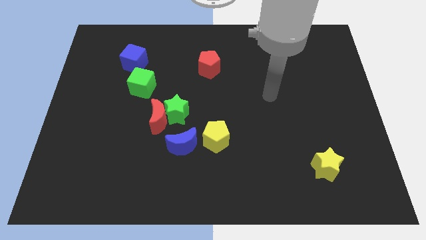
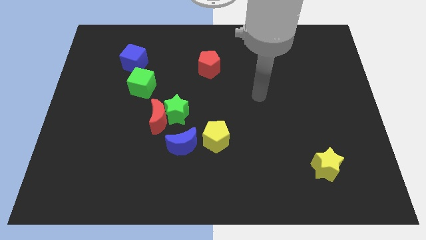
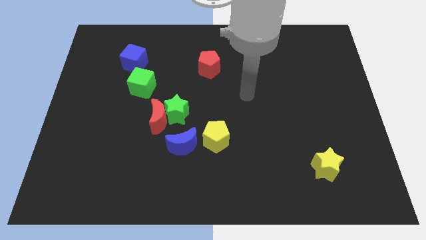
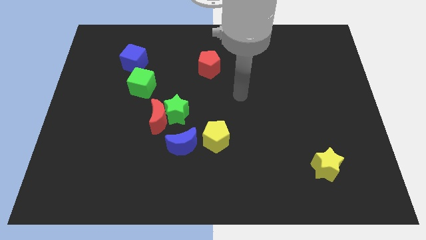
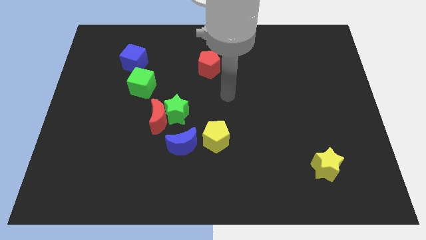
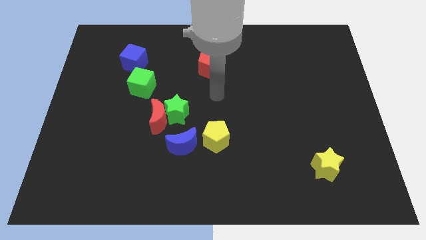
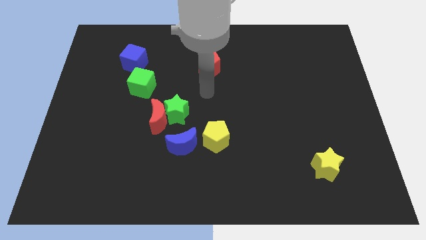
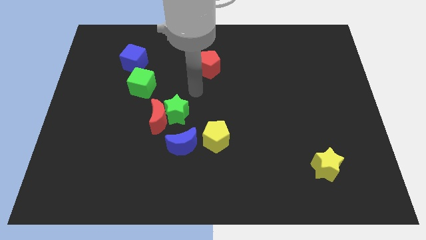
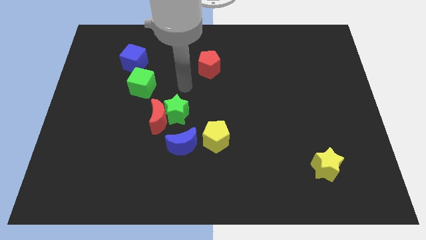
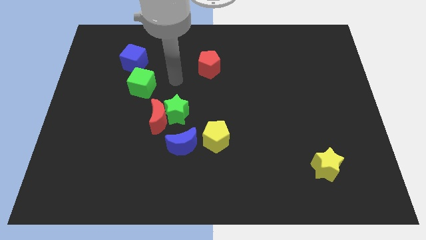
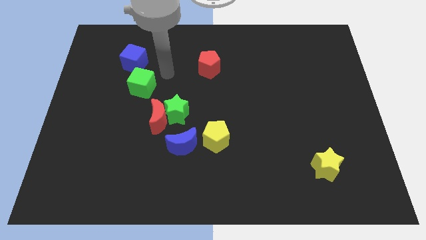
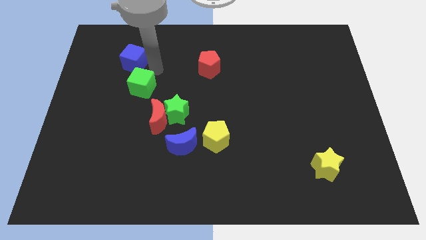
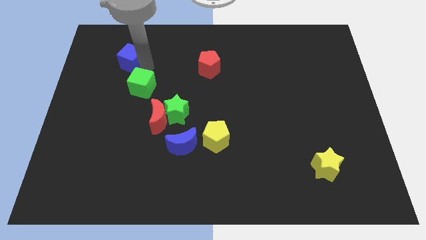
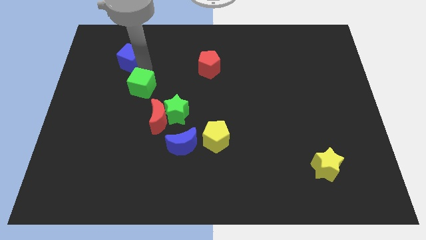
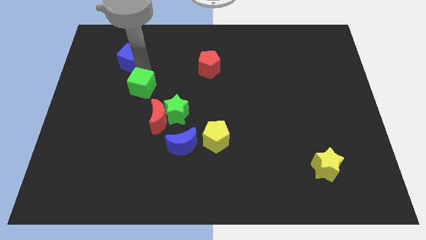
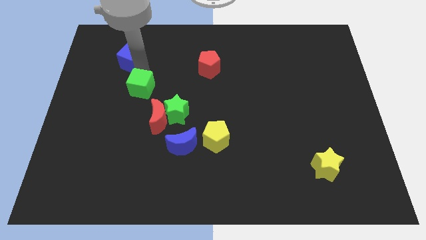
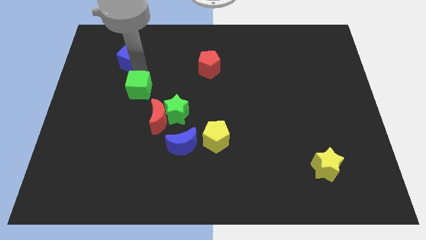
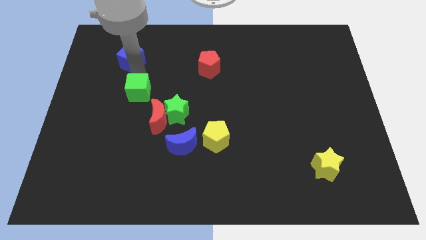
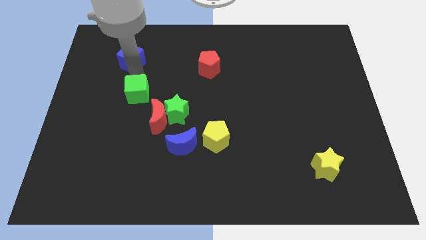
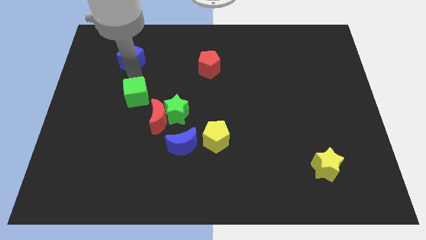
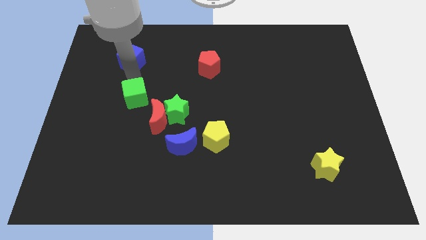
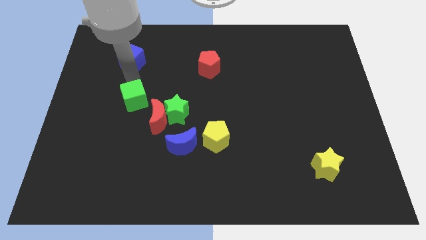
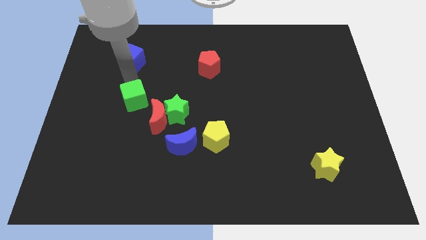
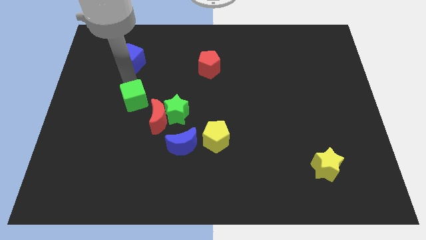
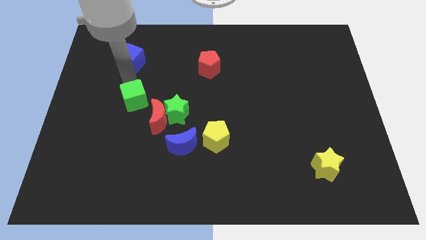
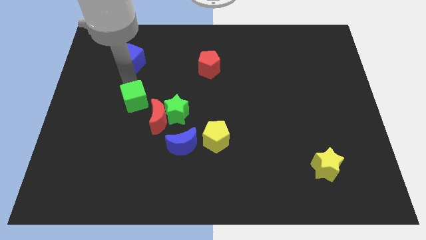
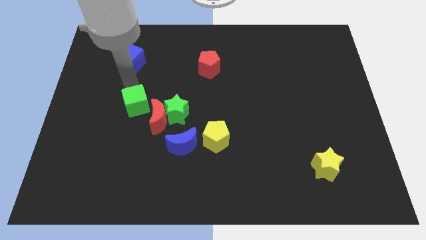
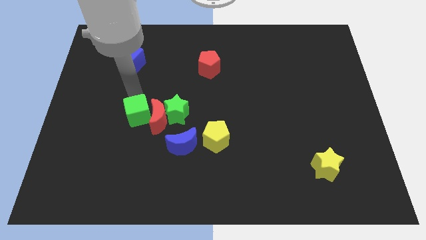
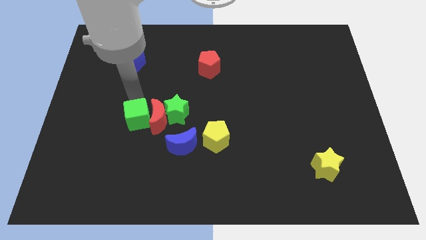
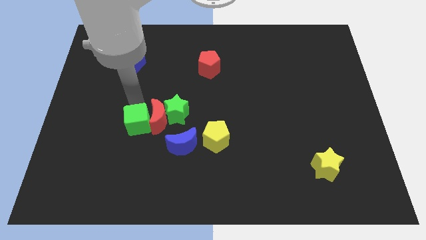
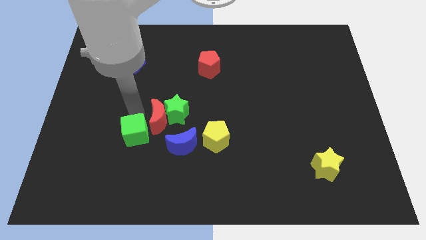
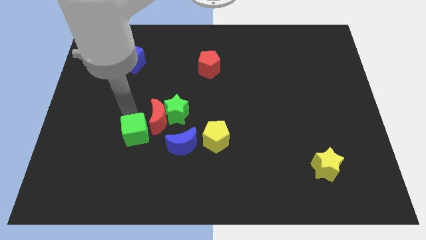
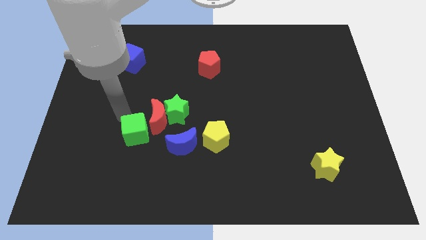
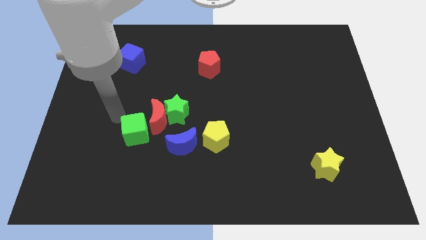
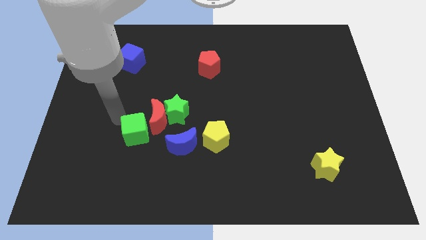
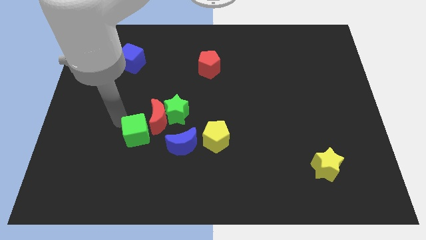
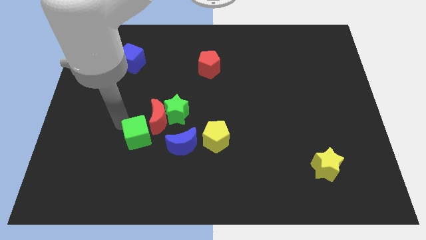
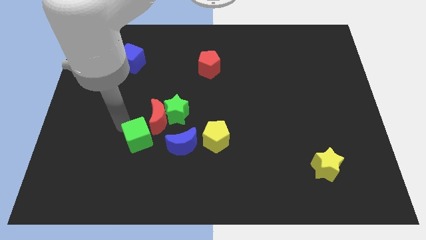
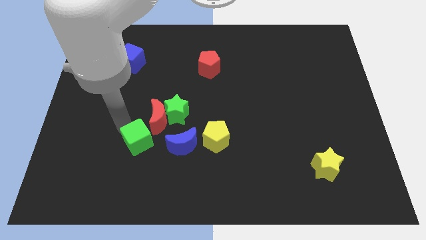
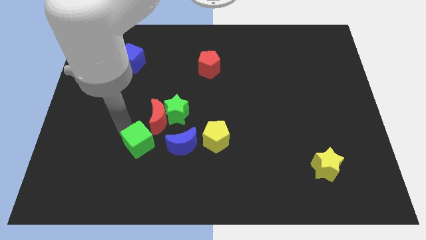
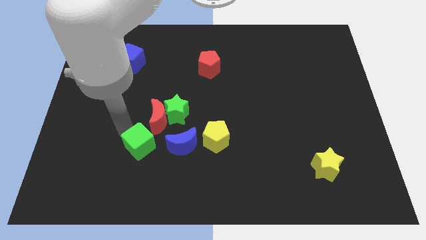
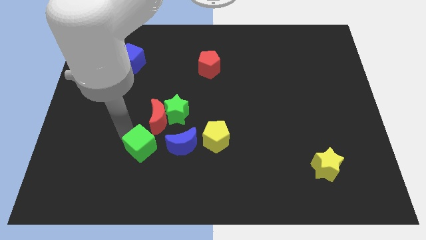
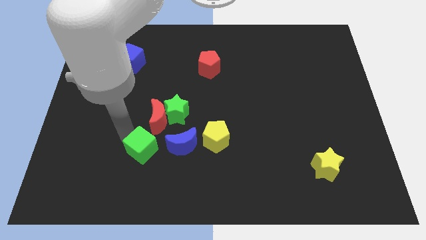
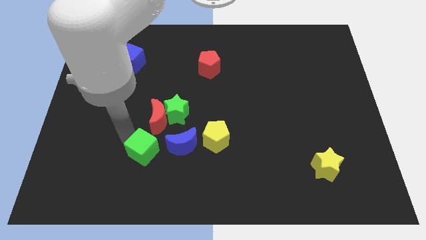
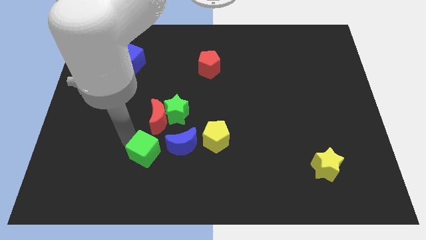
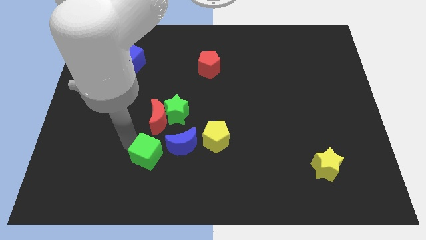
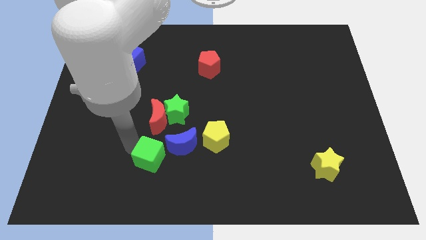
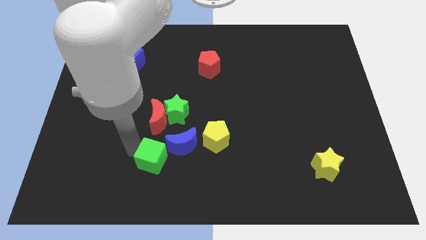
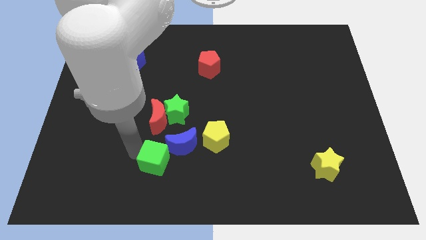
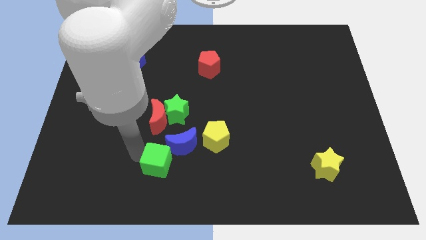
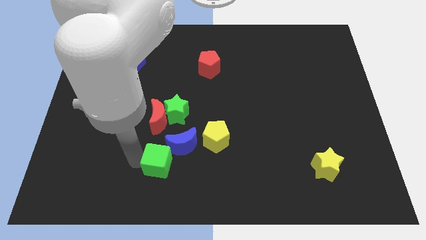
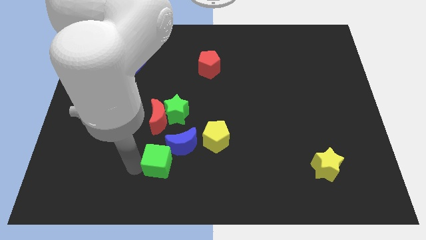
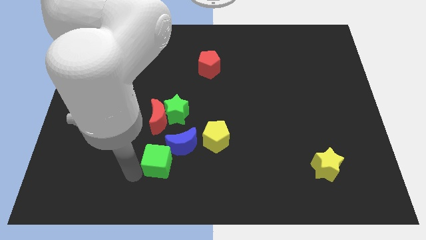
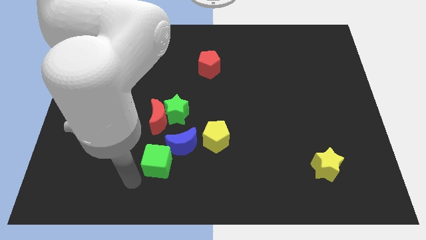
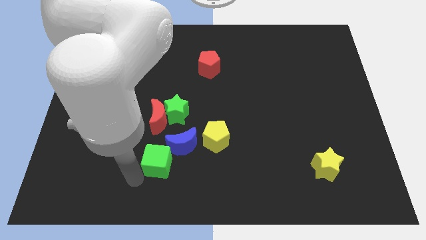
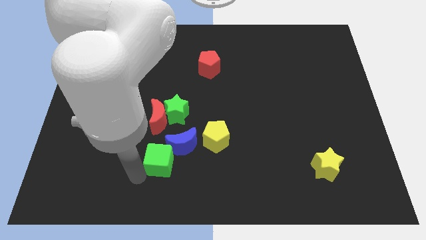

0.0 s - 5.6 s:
move the green cube to the blue moon

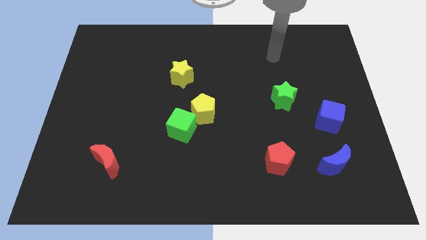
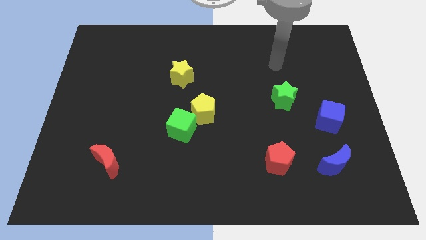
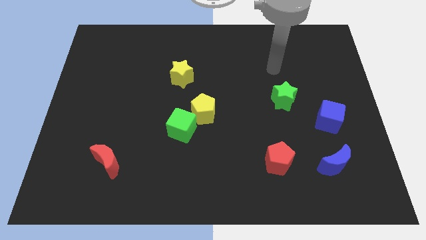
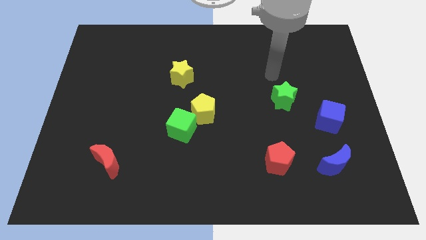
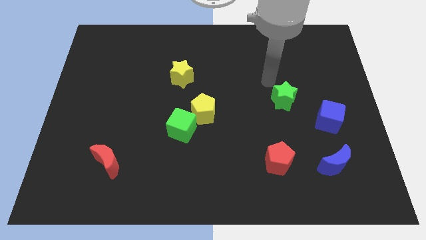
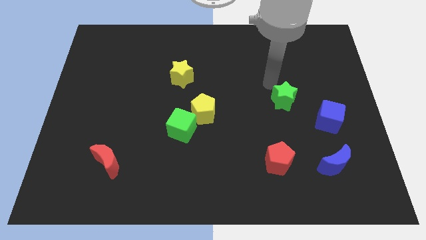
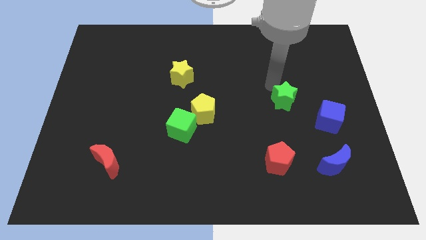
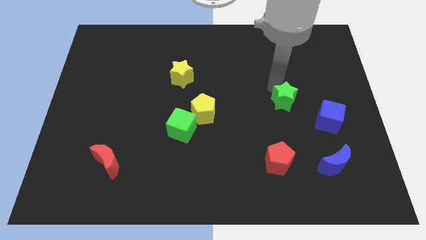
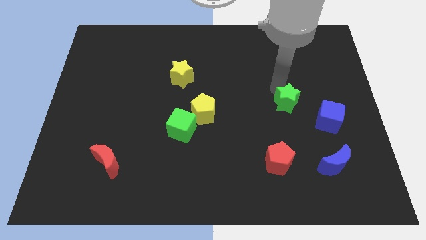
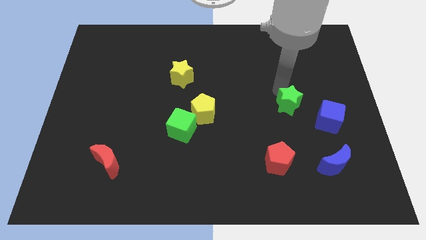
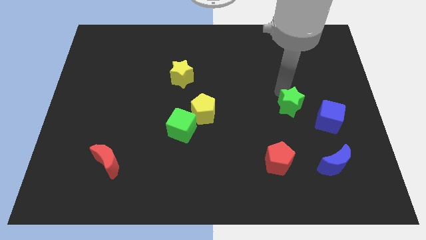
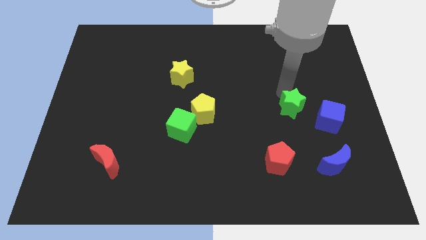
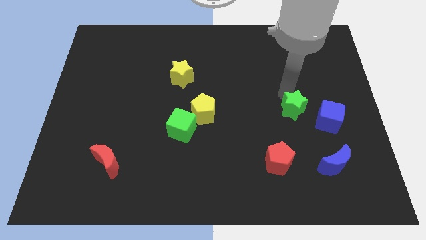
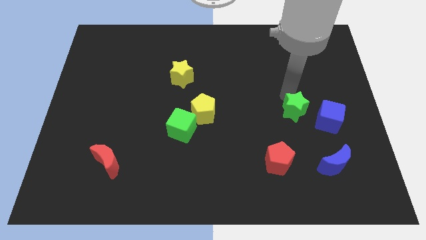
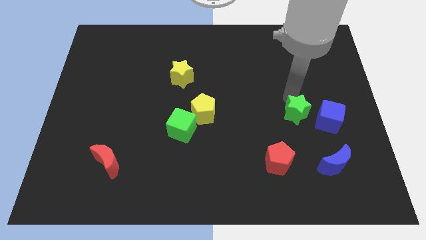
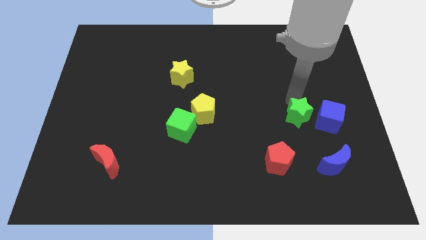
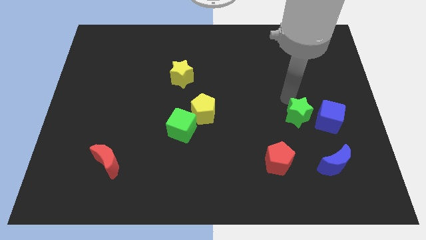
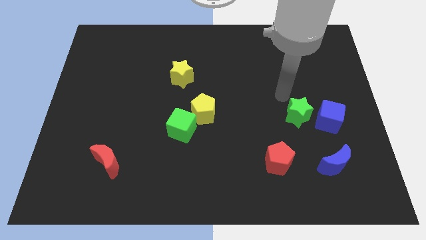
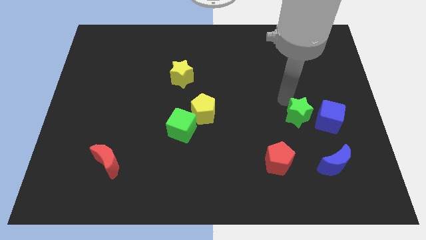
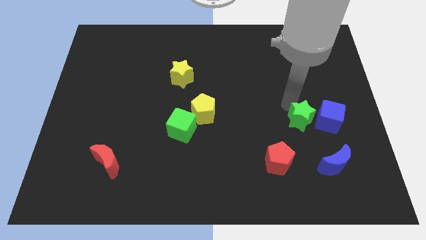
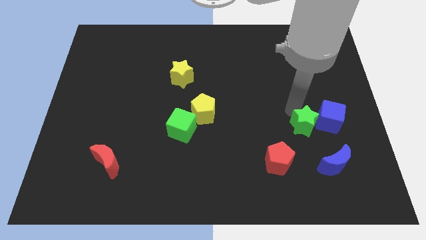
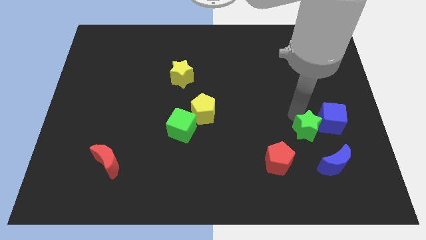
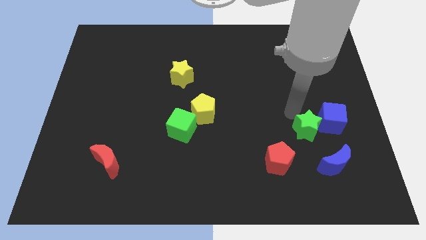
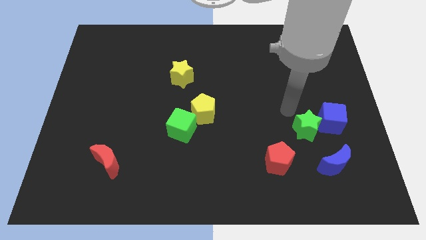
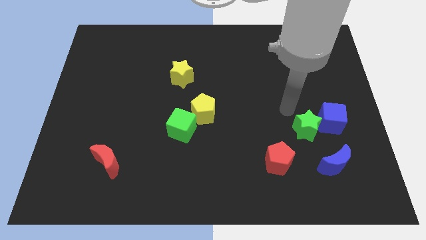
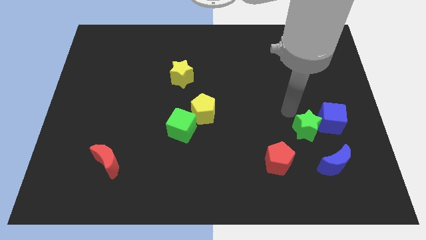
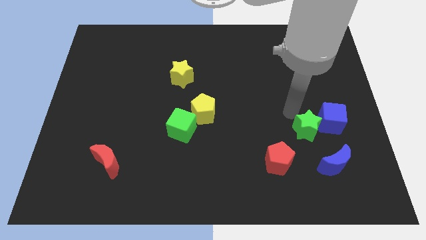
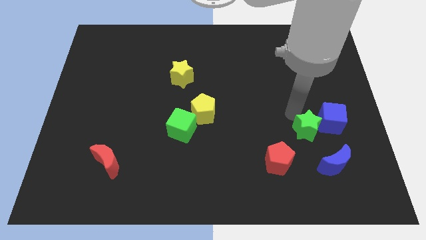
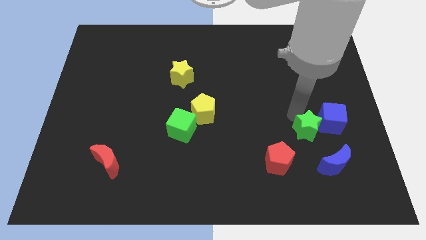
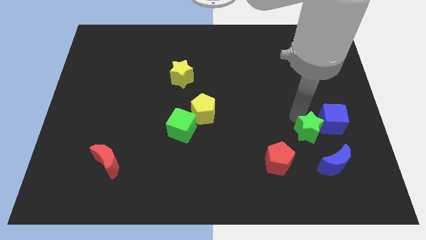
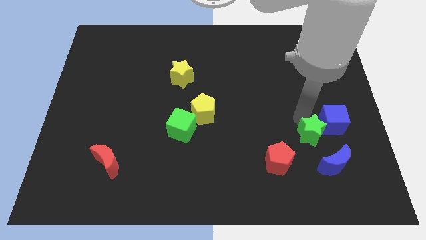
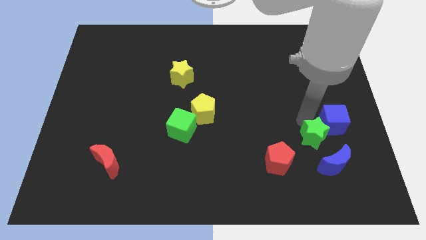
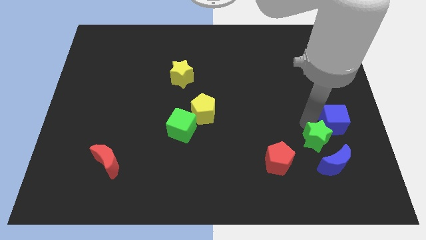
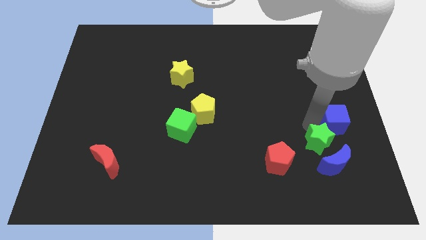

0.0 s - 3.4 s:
push the green star next to the blue moon
